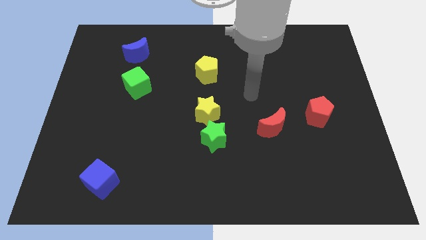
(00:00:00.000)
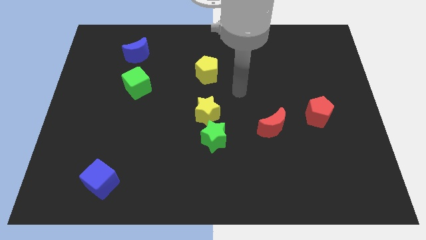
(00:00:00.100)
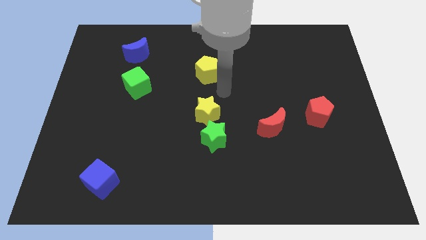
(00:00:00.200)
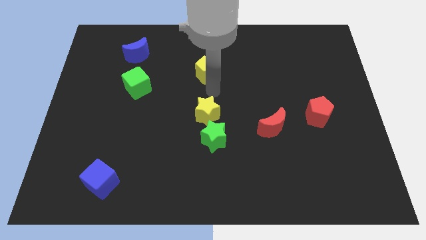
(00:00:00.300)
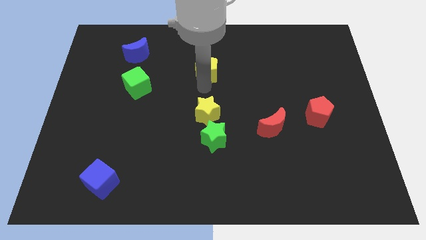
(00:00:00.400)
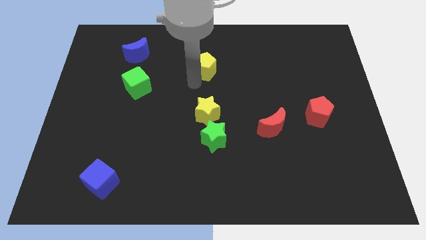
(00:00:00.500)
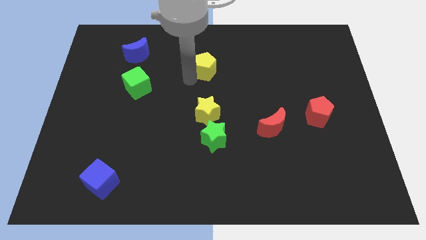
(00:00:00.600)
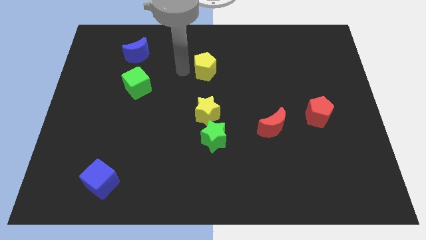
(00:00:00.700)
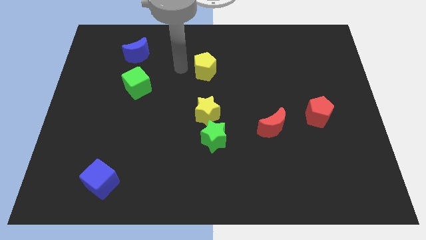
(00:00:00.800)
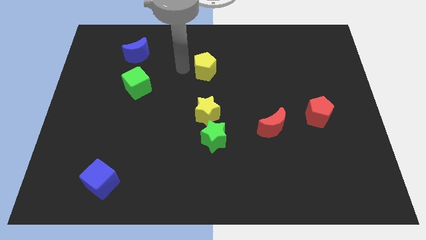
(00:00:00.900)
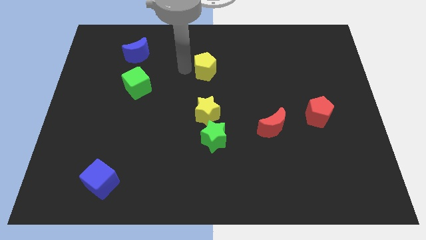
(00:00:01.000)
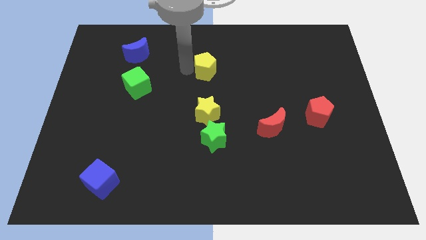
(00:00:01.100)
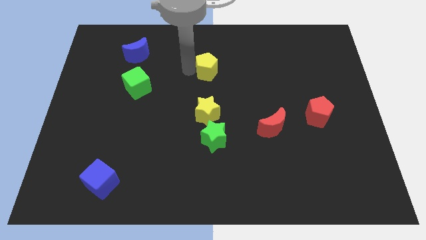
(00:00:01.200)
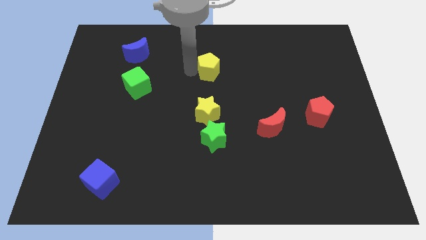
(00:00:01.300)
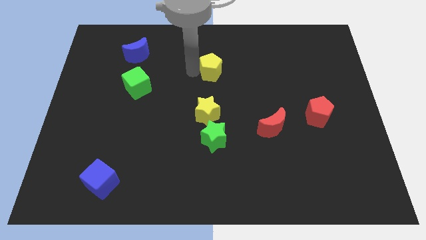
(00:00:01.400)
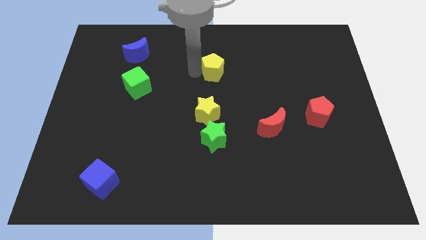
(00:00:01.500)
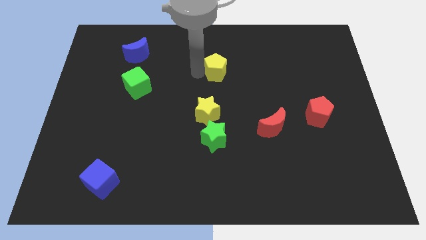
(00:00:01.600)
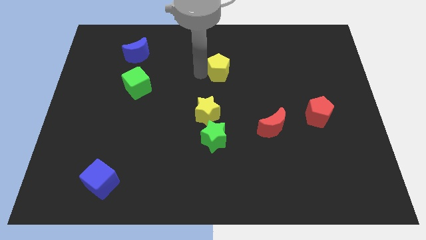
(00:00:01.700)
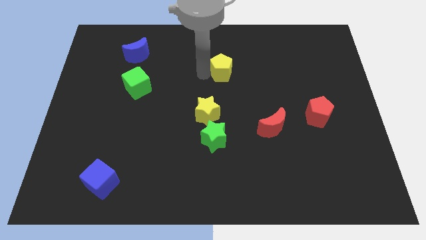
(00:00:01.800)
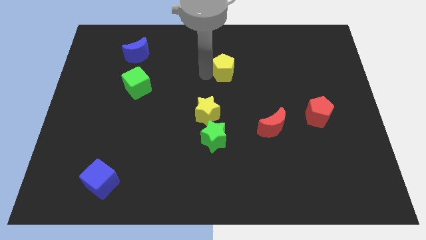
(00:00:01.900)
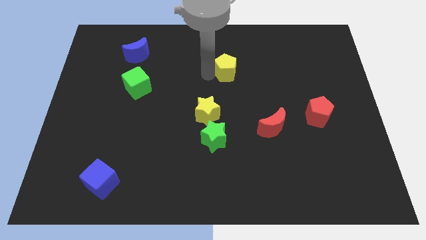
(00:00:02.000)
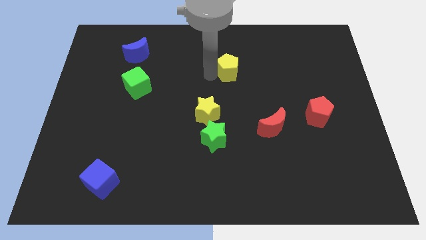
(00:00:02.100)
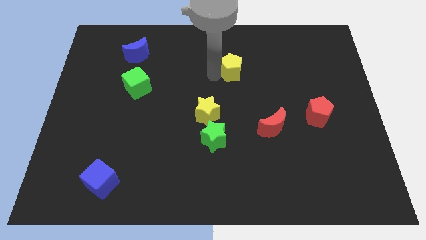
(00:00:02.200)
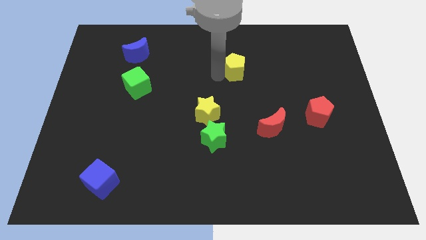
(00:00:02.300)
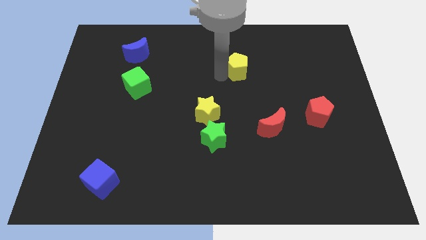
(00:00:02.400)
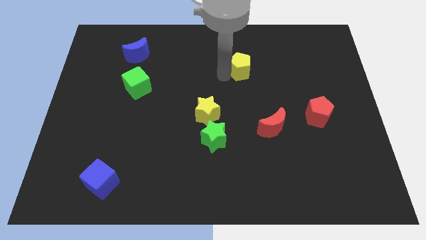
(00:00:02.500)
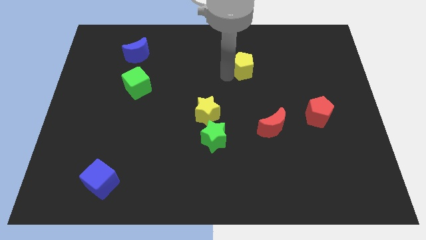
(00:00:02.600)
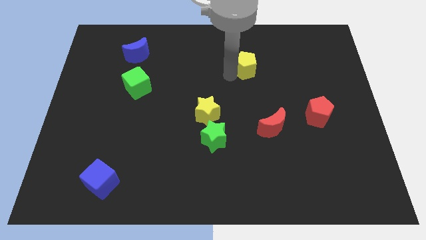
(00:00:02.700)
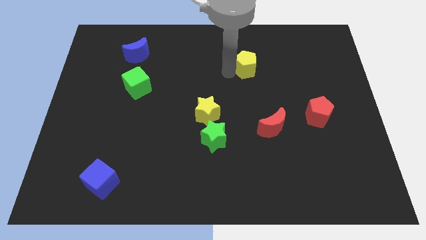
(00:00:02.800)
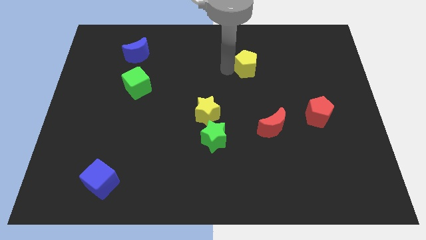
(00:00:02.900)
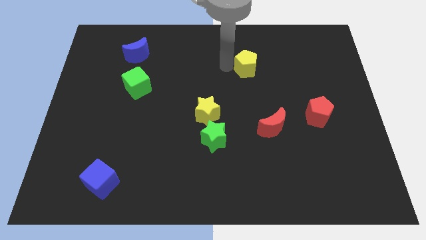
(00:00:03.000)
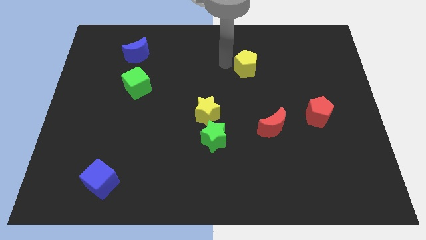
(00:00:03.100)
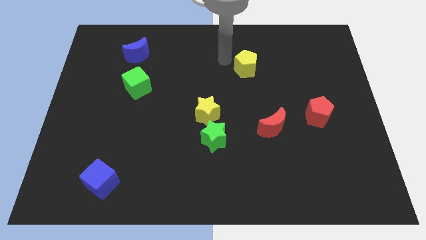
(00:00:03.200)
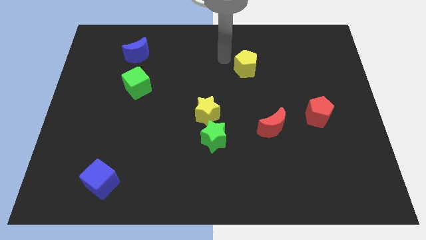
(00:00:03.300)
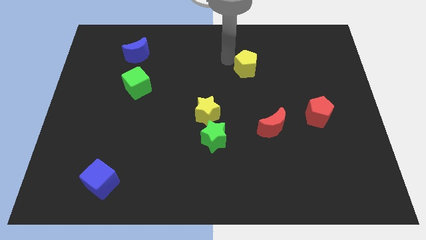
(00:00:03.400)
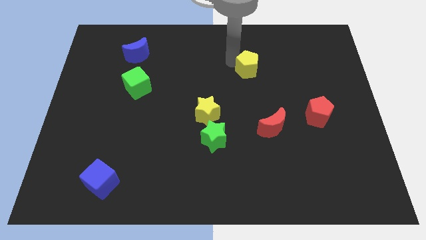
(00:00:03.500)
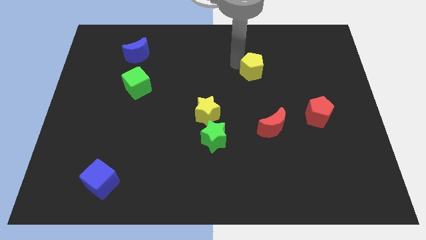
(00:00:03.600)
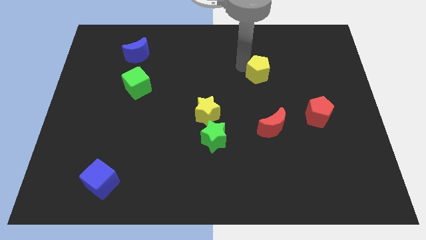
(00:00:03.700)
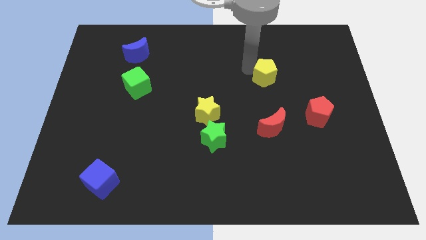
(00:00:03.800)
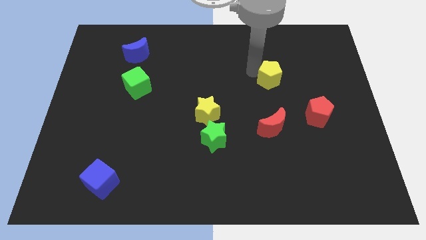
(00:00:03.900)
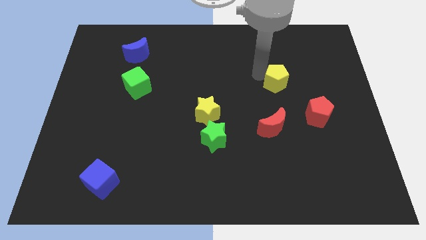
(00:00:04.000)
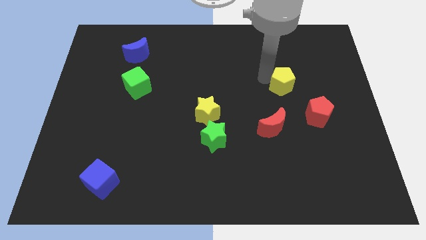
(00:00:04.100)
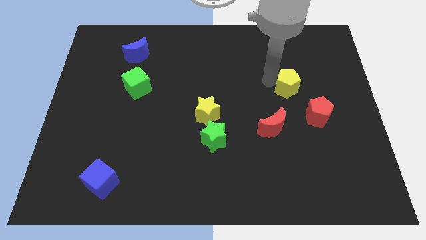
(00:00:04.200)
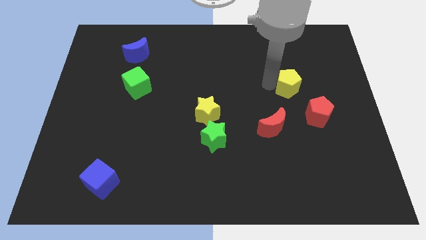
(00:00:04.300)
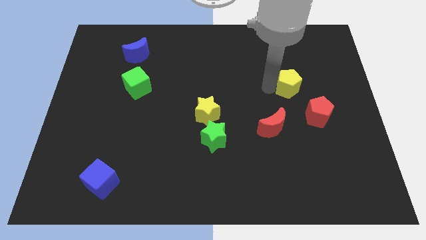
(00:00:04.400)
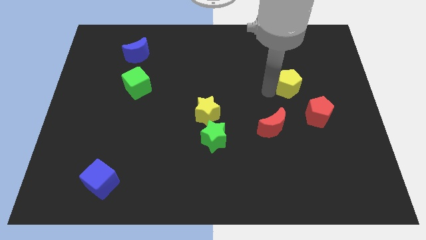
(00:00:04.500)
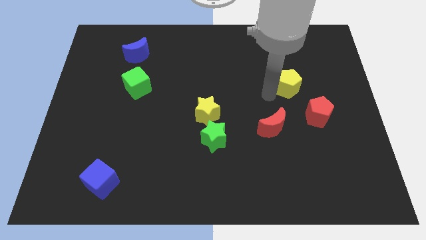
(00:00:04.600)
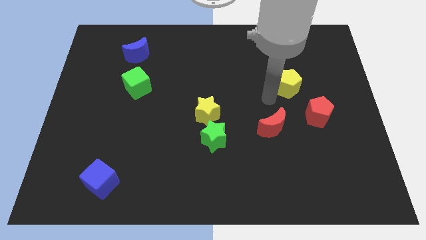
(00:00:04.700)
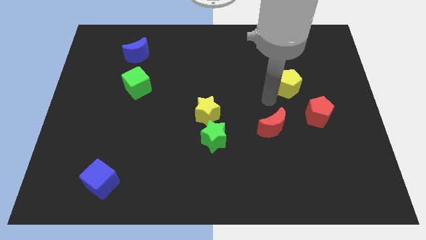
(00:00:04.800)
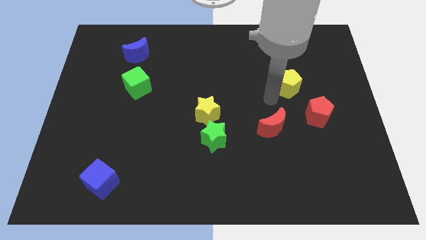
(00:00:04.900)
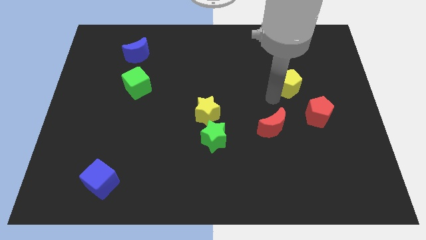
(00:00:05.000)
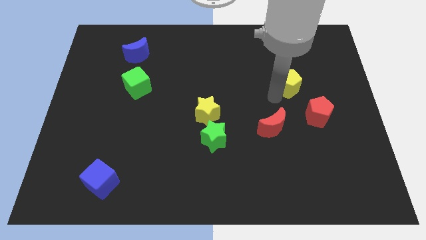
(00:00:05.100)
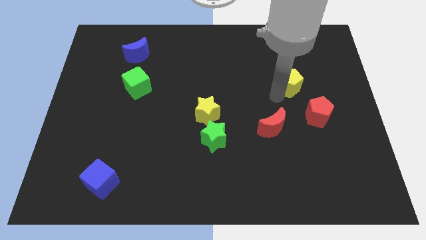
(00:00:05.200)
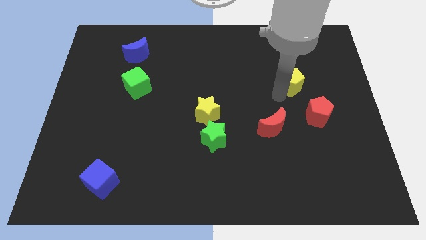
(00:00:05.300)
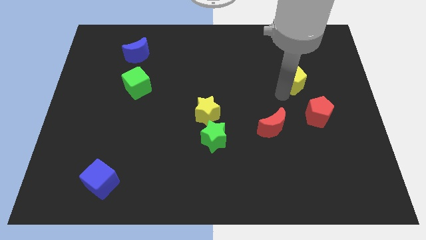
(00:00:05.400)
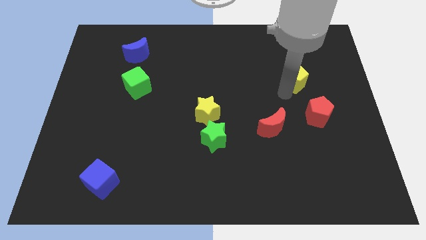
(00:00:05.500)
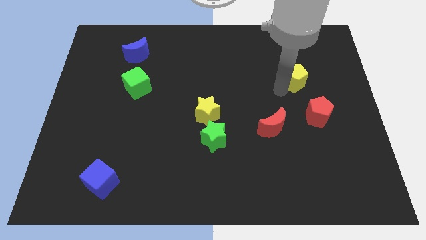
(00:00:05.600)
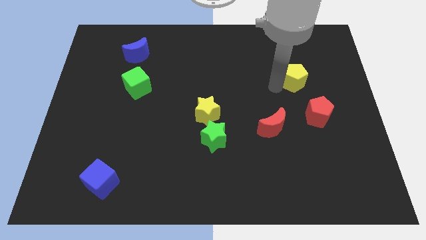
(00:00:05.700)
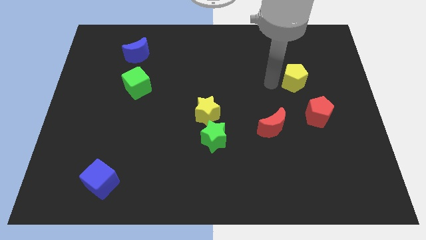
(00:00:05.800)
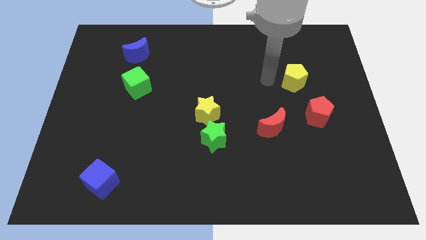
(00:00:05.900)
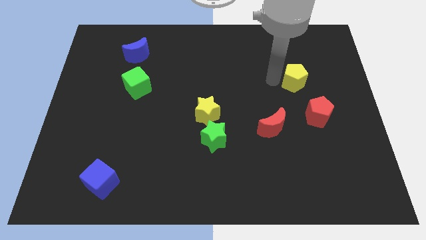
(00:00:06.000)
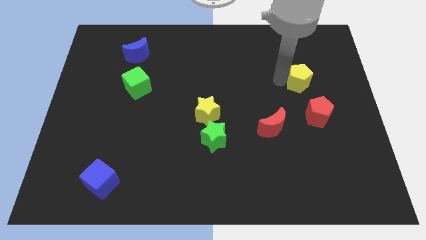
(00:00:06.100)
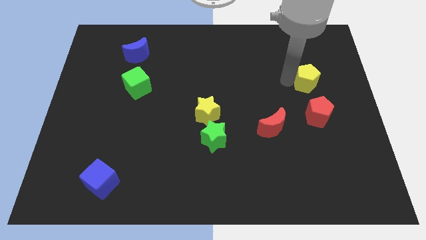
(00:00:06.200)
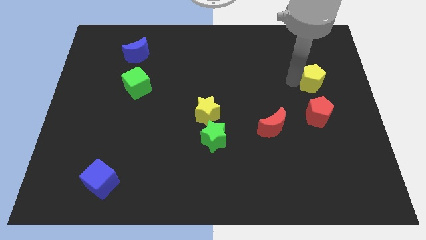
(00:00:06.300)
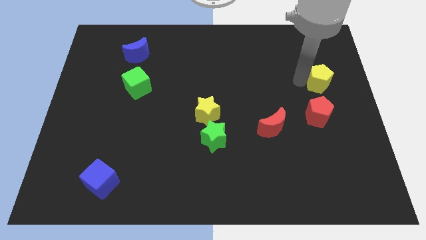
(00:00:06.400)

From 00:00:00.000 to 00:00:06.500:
put the yellow pentagon to the right side
